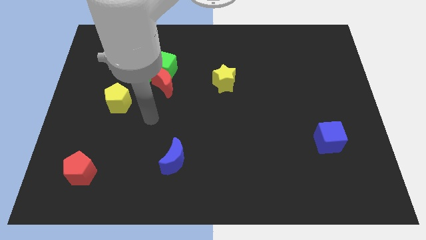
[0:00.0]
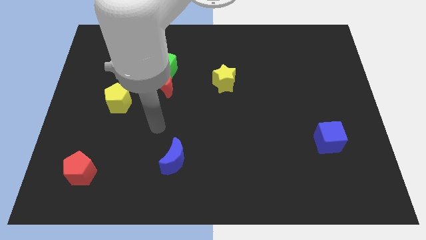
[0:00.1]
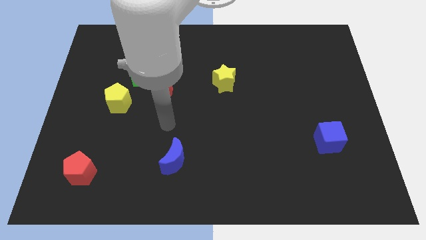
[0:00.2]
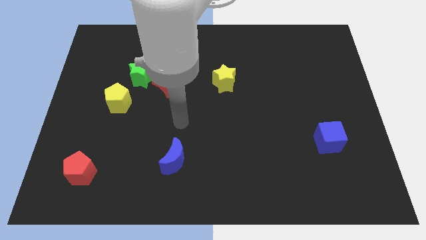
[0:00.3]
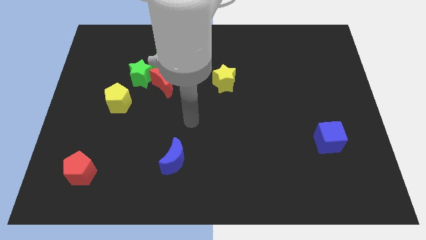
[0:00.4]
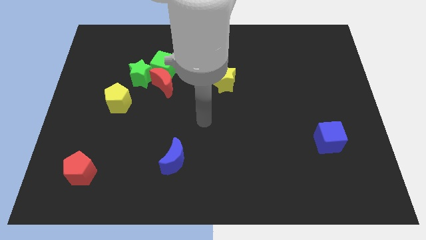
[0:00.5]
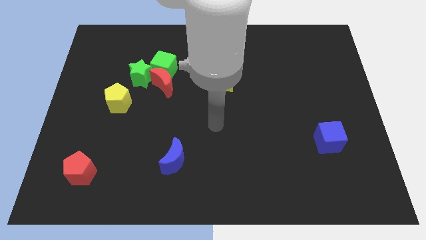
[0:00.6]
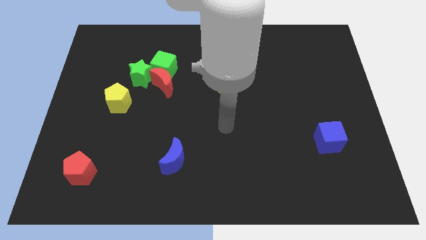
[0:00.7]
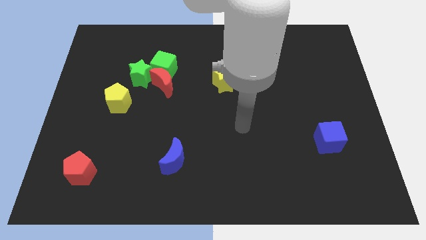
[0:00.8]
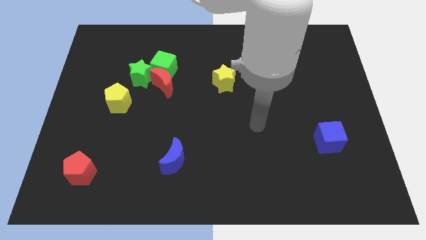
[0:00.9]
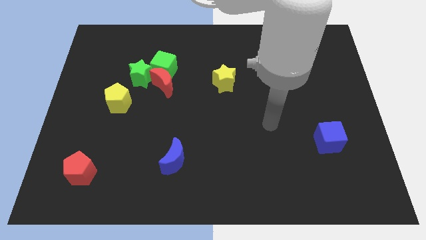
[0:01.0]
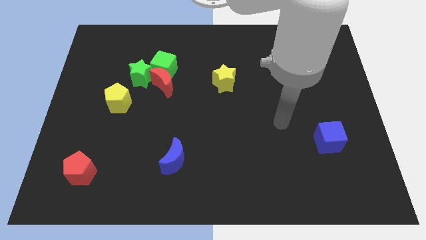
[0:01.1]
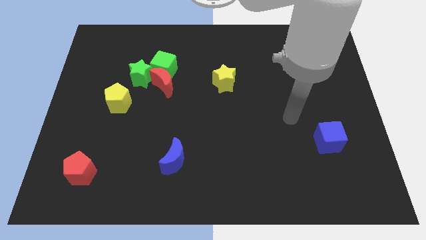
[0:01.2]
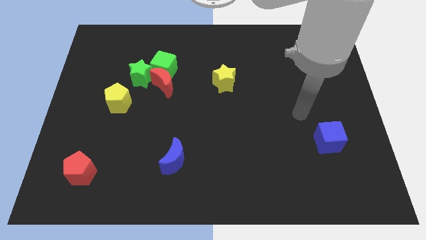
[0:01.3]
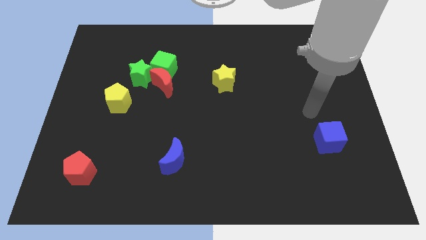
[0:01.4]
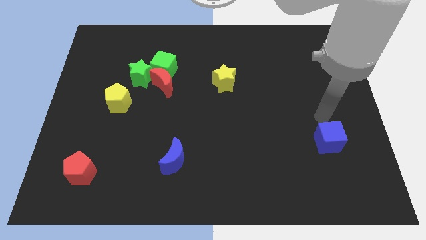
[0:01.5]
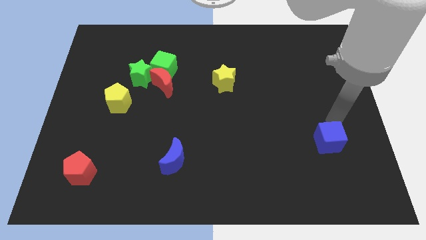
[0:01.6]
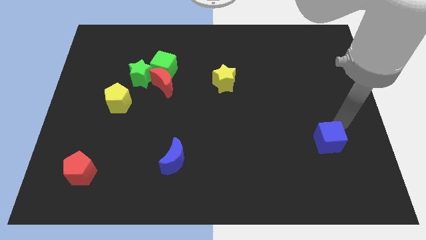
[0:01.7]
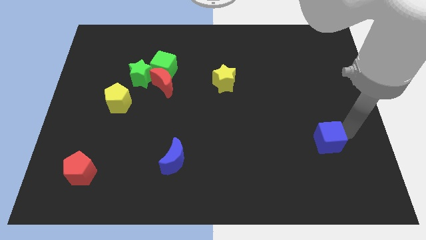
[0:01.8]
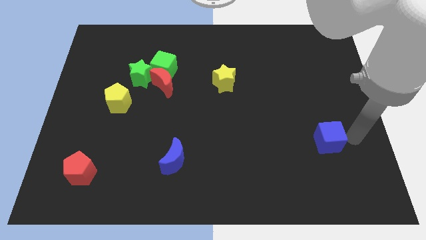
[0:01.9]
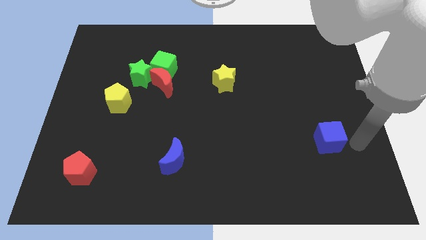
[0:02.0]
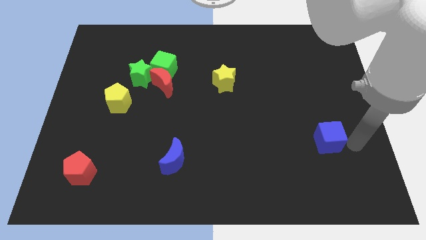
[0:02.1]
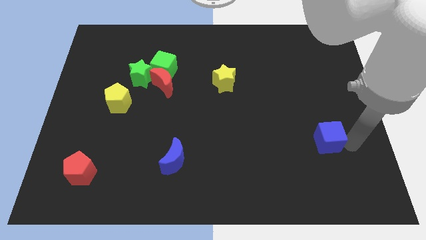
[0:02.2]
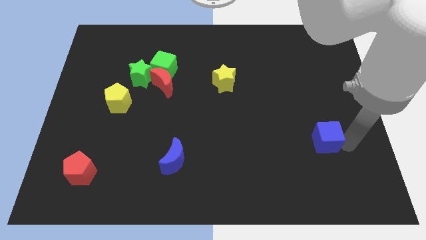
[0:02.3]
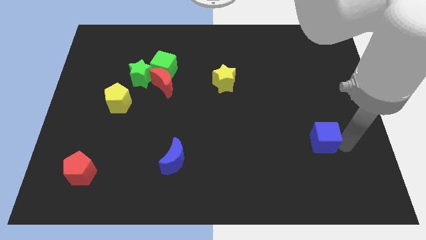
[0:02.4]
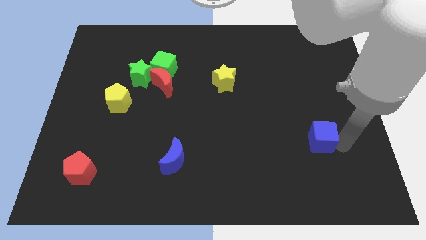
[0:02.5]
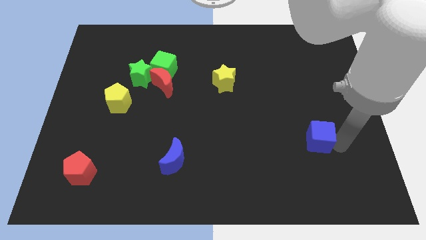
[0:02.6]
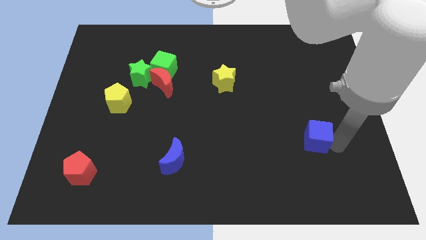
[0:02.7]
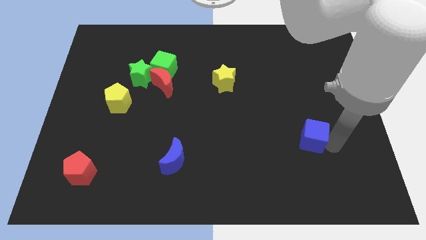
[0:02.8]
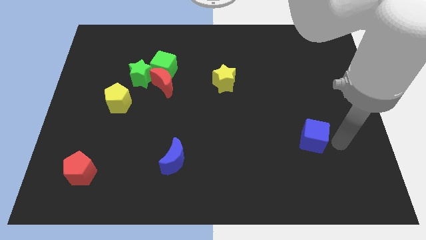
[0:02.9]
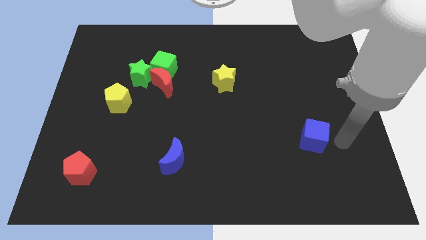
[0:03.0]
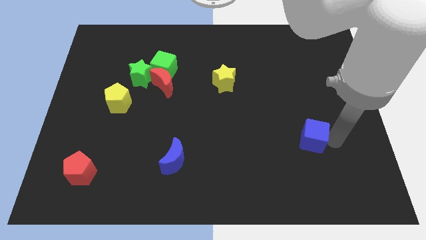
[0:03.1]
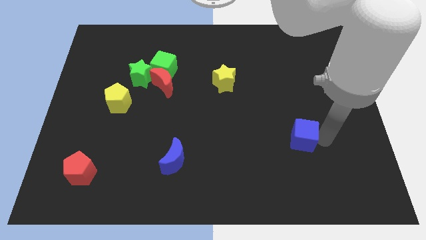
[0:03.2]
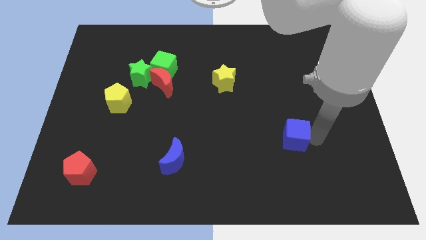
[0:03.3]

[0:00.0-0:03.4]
slightly slide the blue cube left

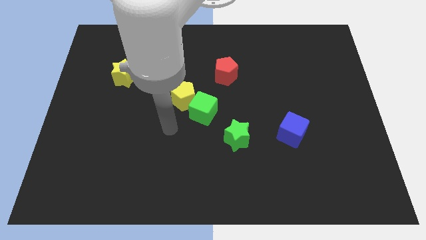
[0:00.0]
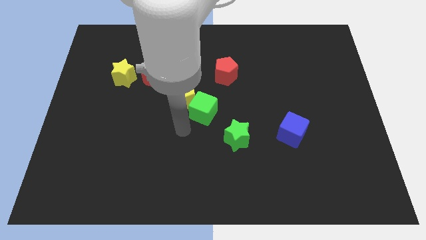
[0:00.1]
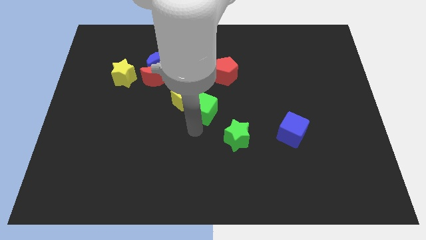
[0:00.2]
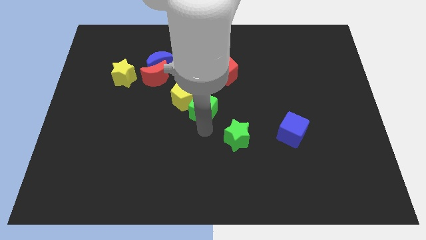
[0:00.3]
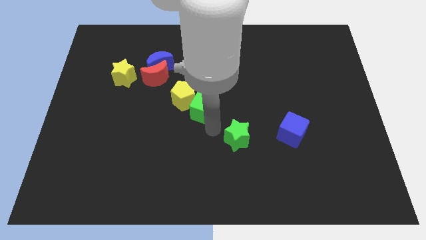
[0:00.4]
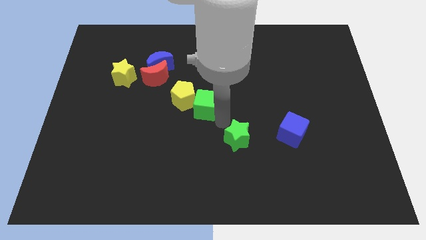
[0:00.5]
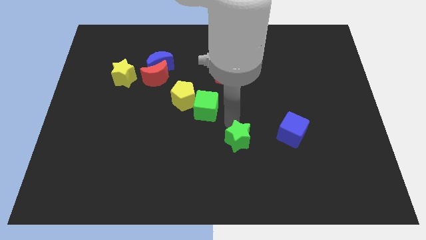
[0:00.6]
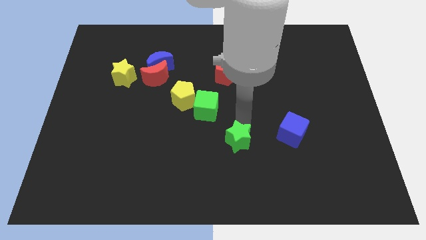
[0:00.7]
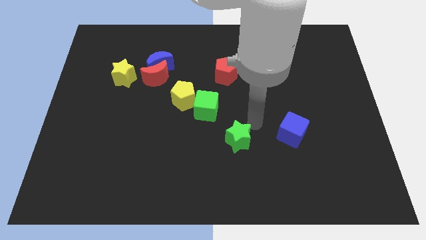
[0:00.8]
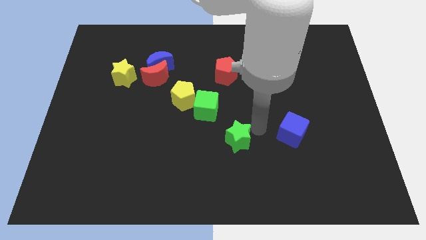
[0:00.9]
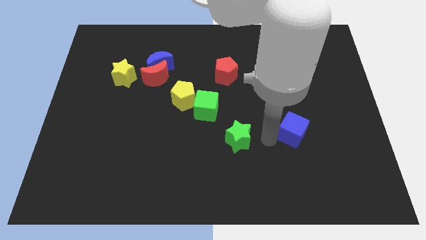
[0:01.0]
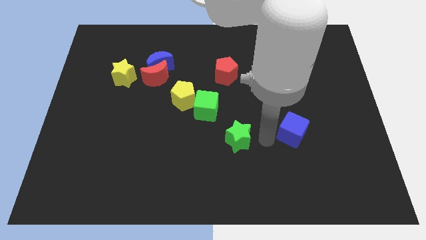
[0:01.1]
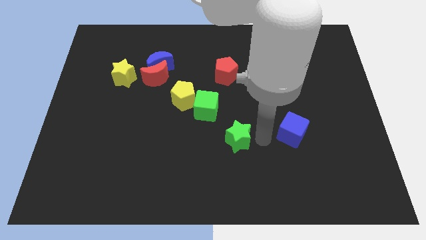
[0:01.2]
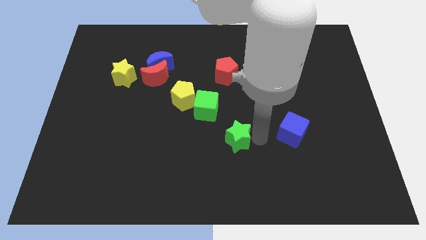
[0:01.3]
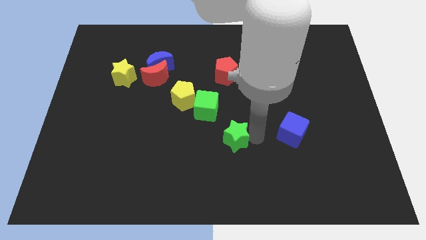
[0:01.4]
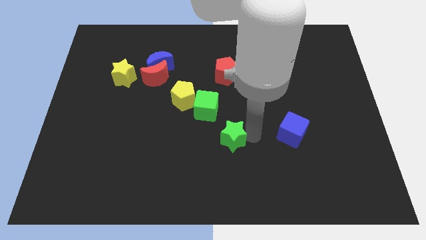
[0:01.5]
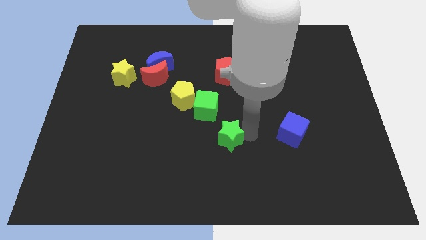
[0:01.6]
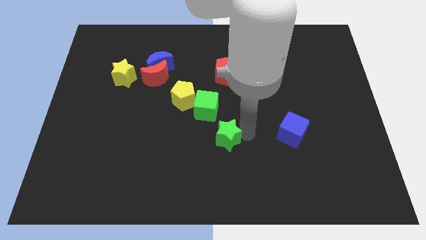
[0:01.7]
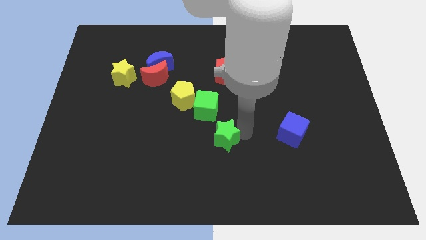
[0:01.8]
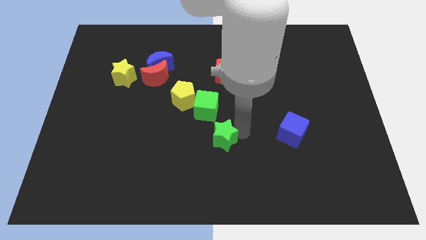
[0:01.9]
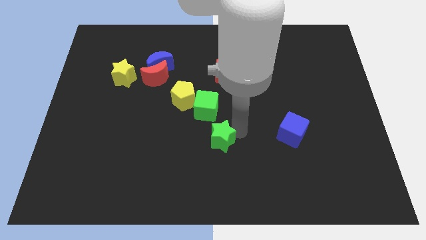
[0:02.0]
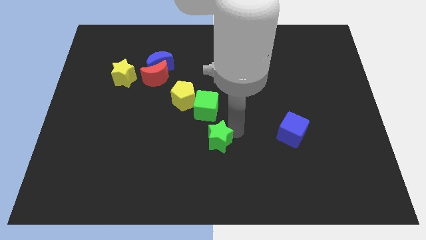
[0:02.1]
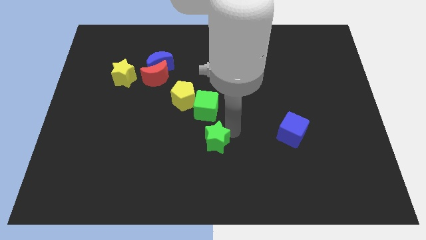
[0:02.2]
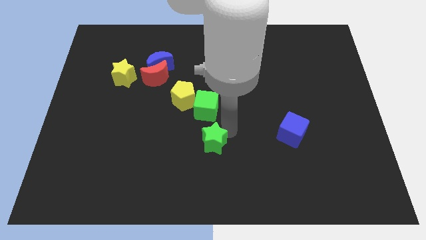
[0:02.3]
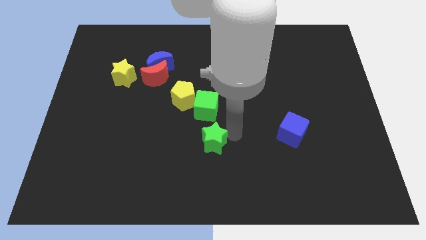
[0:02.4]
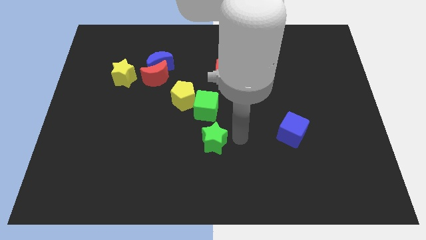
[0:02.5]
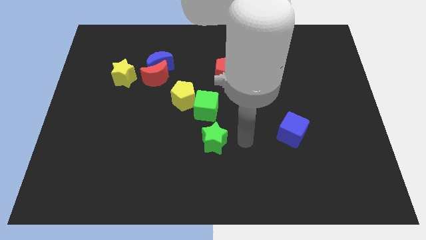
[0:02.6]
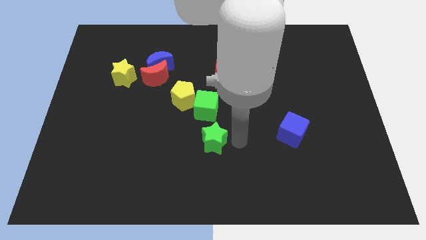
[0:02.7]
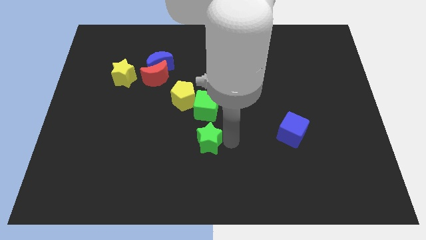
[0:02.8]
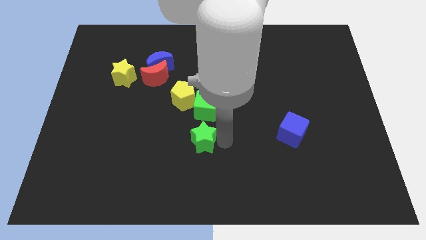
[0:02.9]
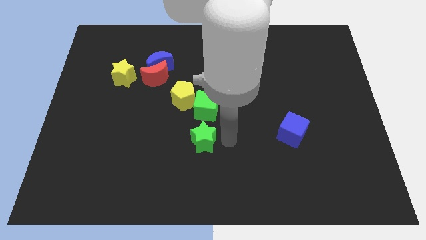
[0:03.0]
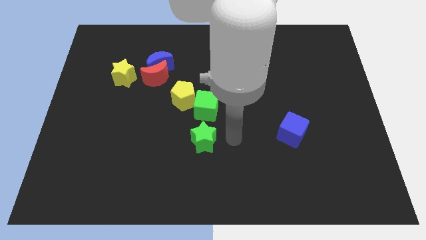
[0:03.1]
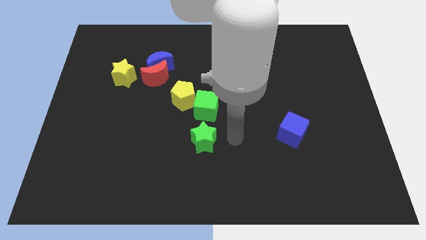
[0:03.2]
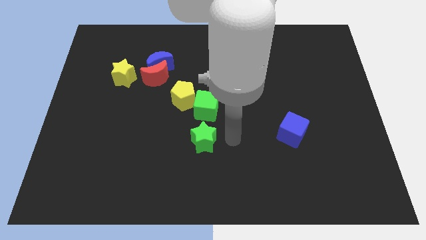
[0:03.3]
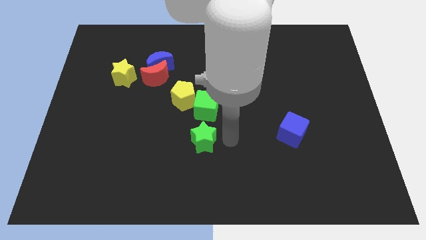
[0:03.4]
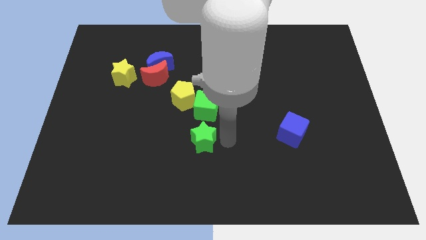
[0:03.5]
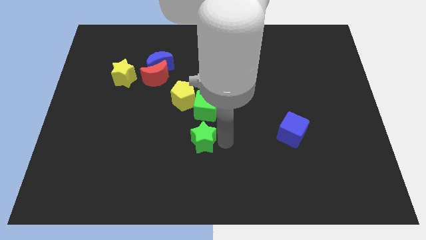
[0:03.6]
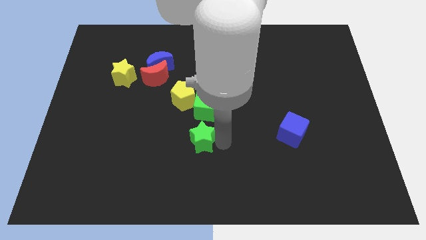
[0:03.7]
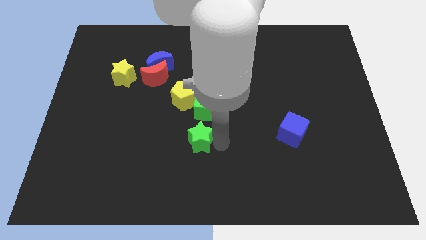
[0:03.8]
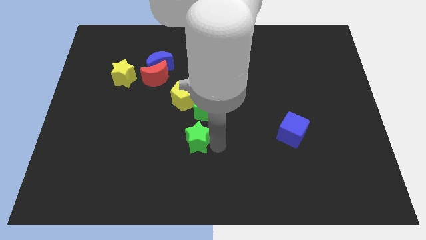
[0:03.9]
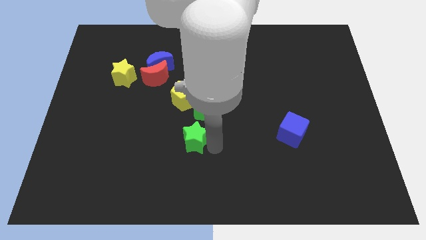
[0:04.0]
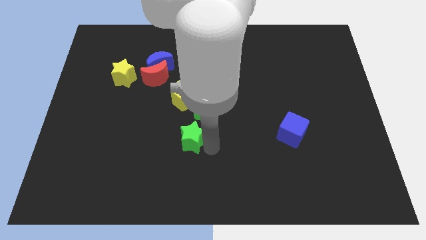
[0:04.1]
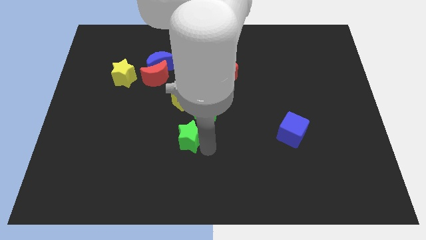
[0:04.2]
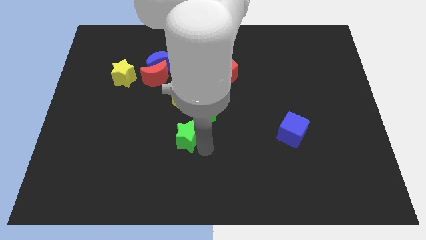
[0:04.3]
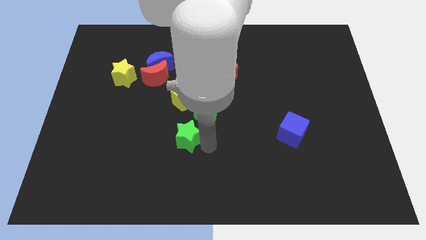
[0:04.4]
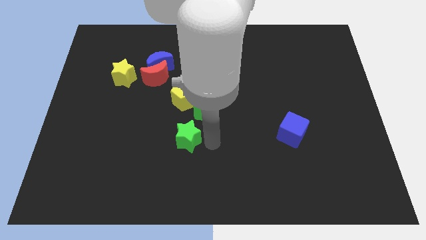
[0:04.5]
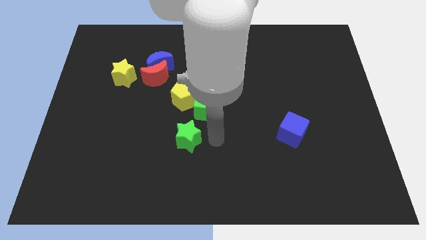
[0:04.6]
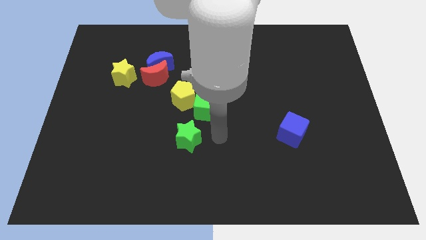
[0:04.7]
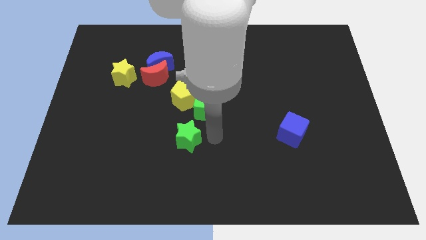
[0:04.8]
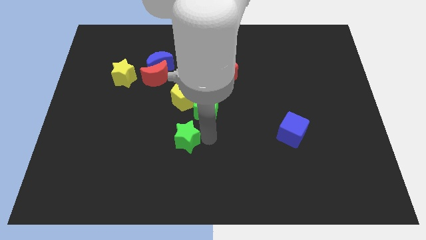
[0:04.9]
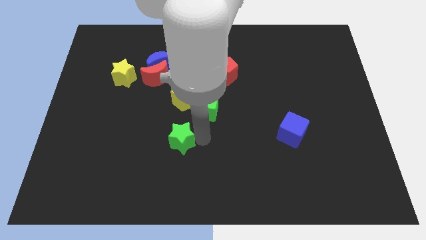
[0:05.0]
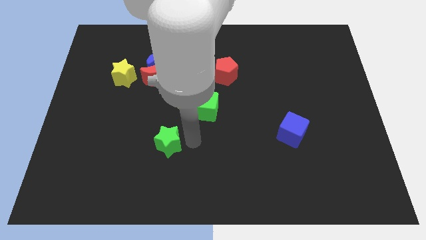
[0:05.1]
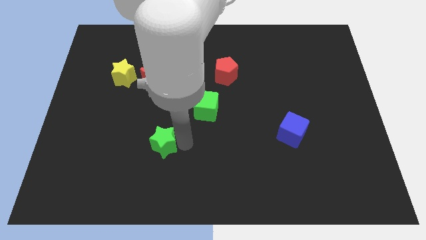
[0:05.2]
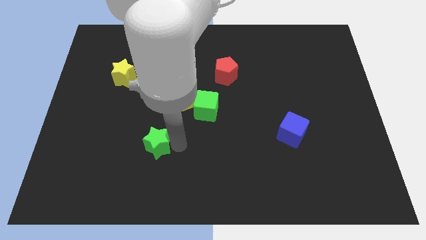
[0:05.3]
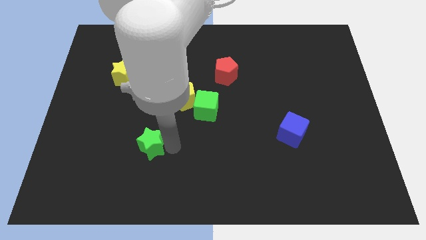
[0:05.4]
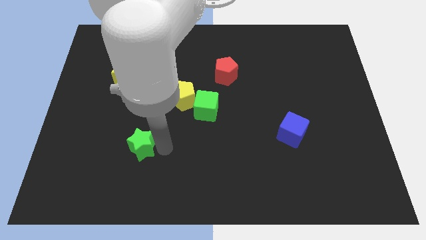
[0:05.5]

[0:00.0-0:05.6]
push the green star left
